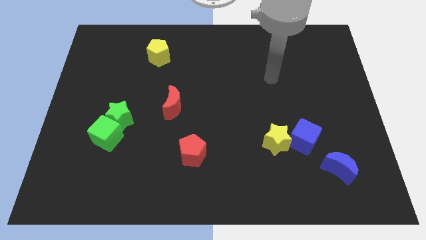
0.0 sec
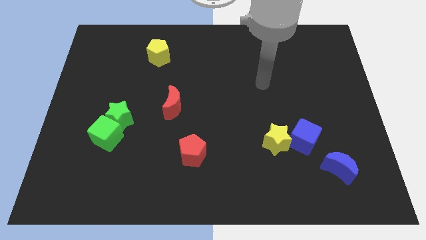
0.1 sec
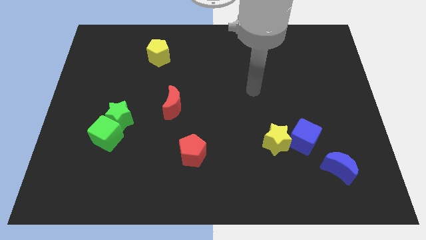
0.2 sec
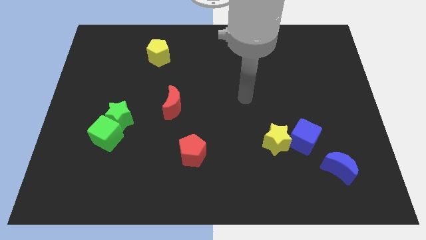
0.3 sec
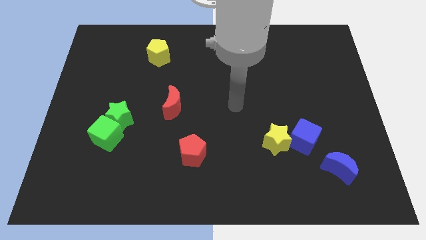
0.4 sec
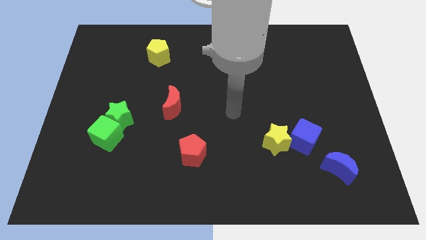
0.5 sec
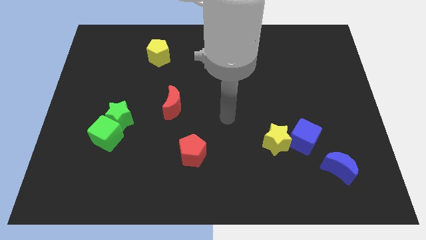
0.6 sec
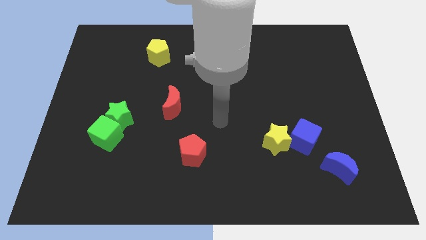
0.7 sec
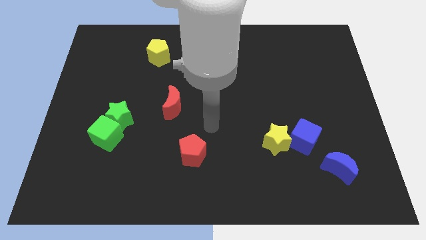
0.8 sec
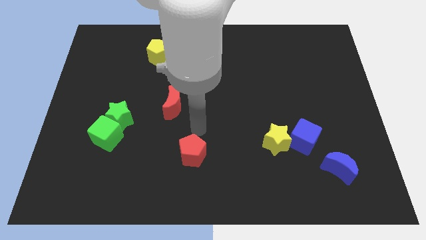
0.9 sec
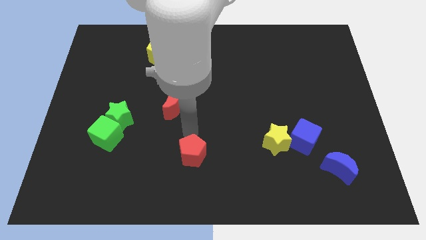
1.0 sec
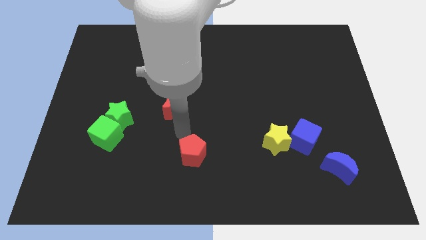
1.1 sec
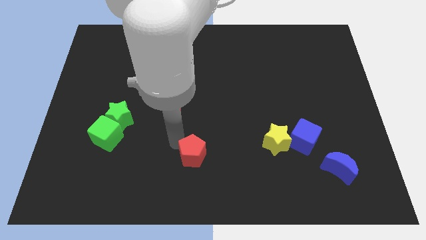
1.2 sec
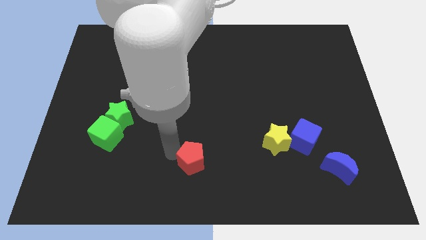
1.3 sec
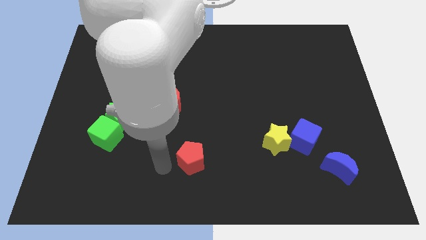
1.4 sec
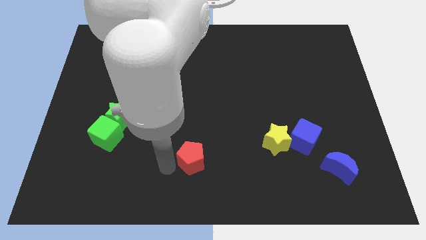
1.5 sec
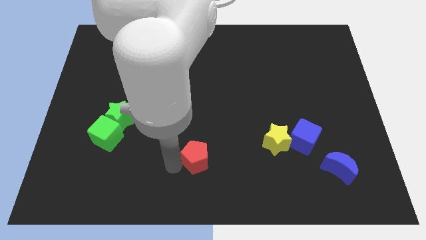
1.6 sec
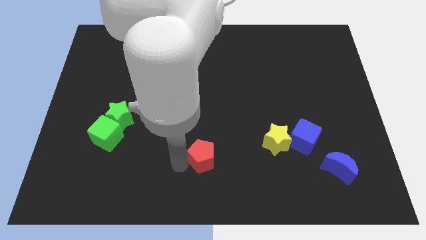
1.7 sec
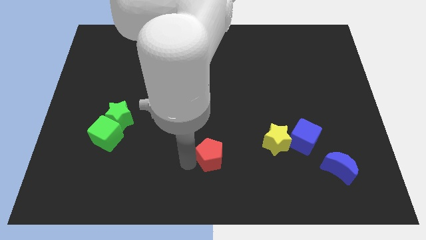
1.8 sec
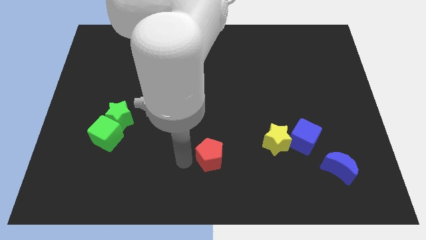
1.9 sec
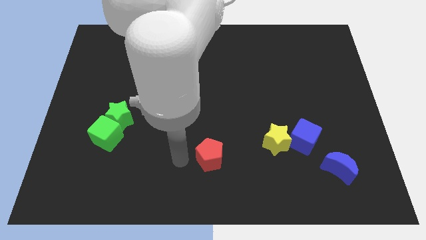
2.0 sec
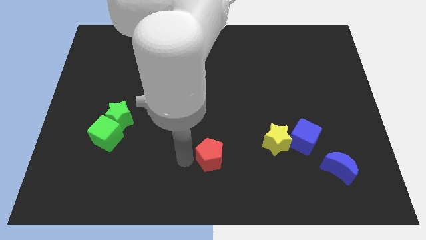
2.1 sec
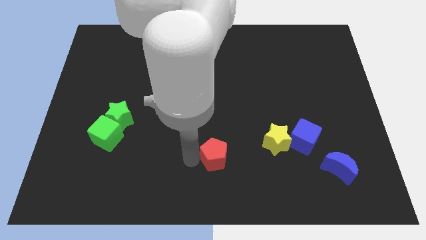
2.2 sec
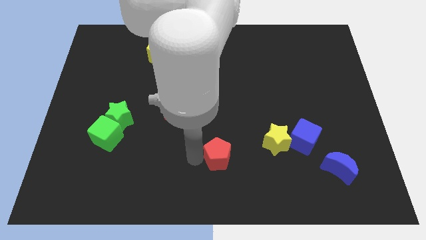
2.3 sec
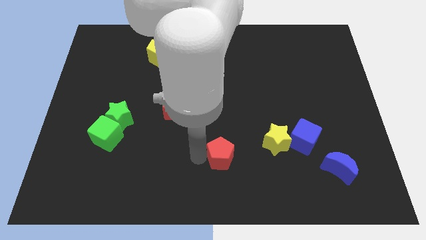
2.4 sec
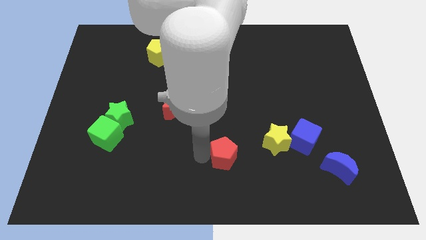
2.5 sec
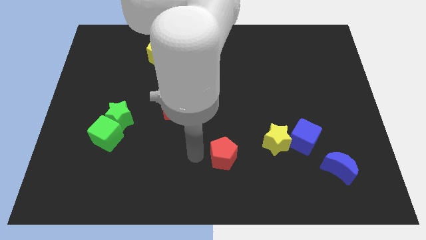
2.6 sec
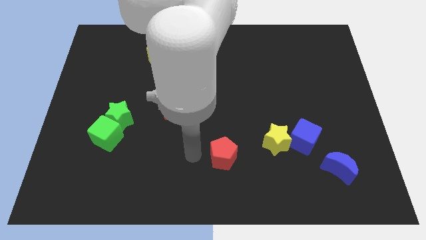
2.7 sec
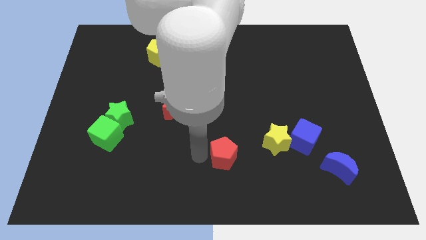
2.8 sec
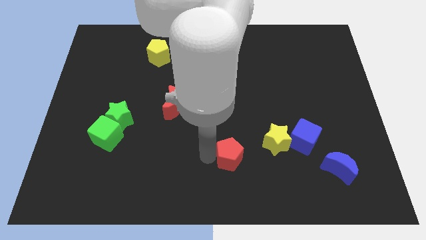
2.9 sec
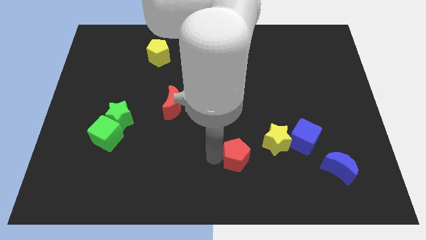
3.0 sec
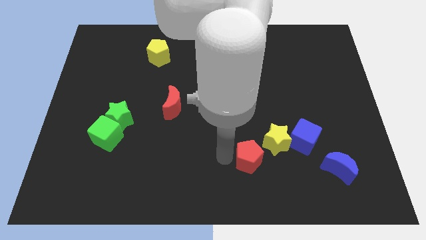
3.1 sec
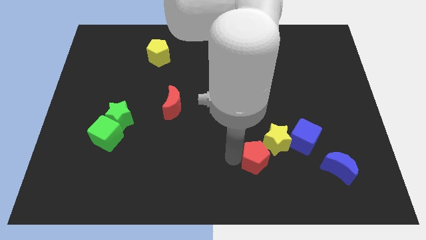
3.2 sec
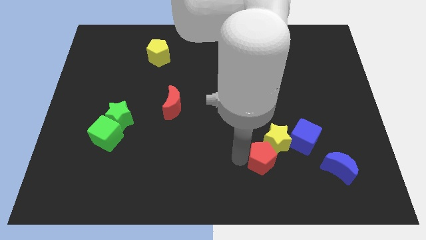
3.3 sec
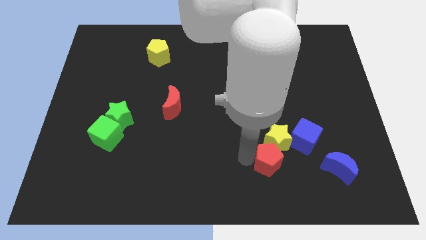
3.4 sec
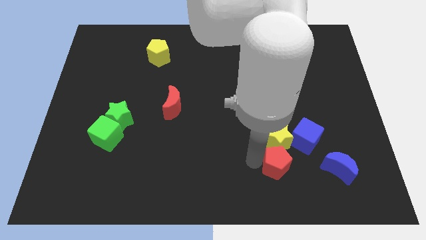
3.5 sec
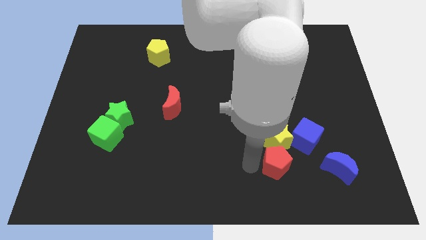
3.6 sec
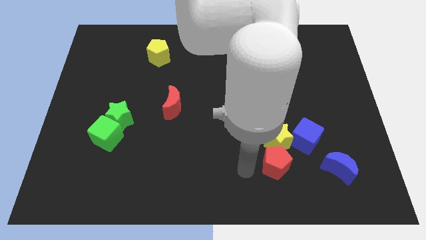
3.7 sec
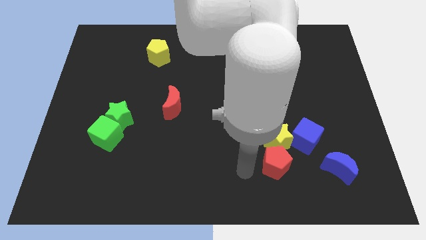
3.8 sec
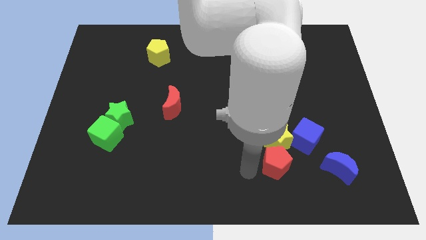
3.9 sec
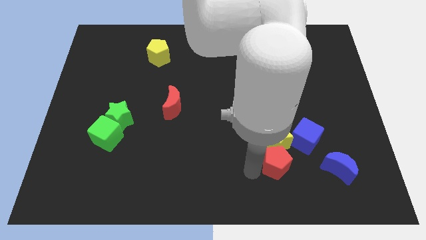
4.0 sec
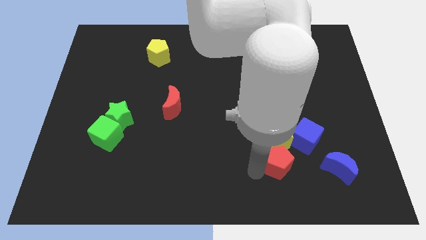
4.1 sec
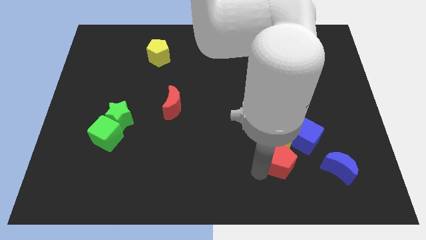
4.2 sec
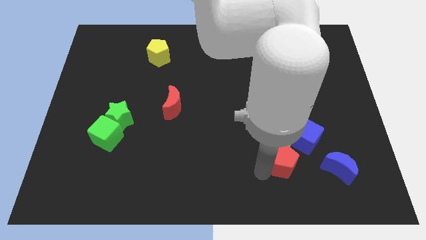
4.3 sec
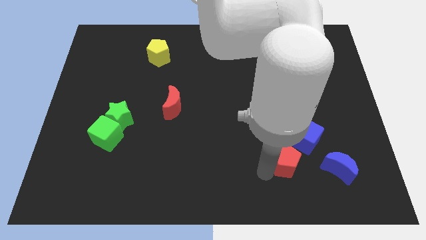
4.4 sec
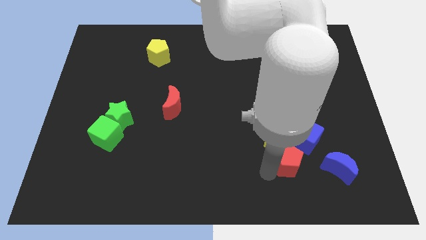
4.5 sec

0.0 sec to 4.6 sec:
push the red pentagon to the right

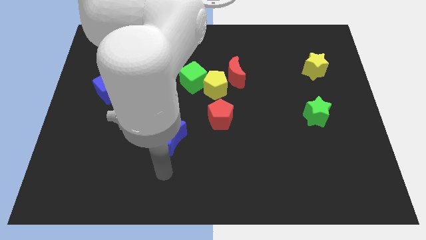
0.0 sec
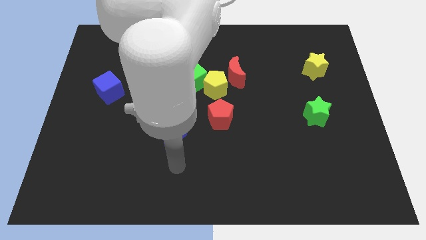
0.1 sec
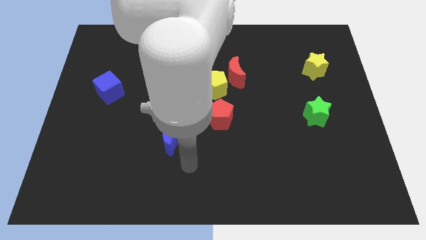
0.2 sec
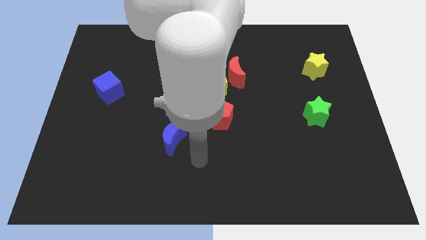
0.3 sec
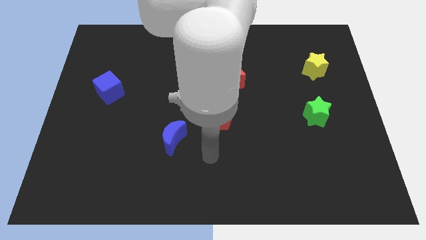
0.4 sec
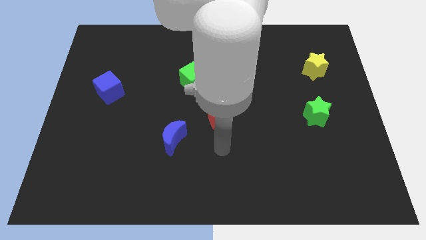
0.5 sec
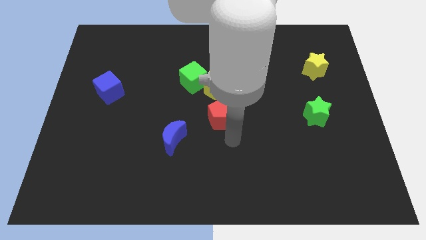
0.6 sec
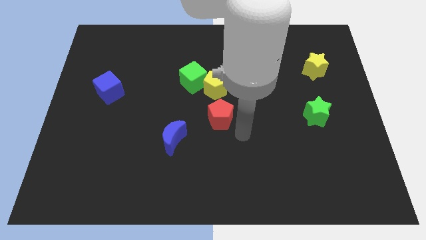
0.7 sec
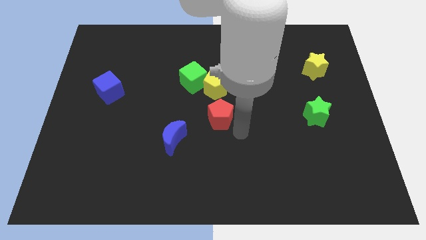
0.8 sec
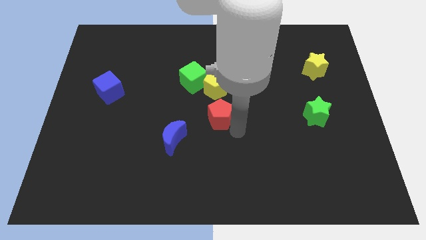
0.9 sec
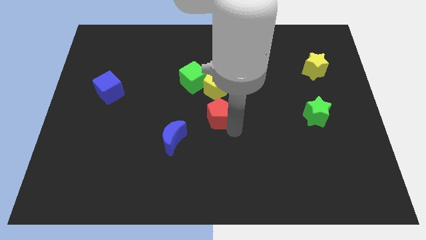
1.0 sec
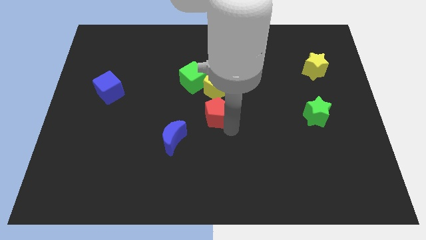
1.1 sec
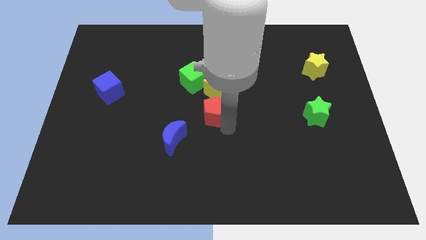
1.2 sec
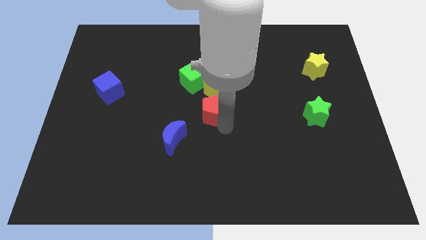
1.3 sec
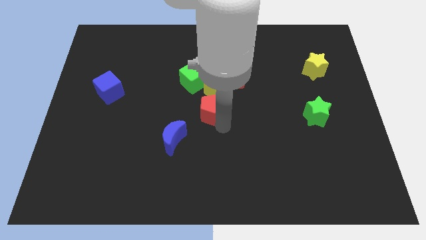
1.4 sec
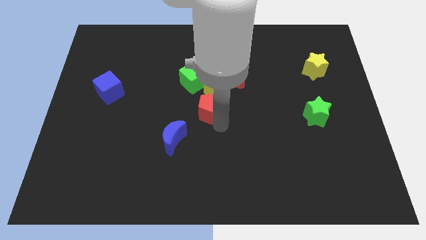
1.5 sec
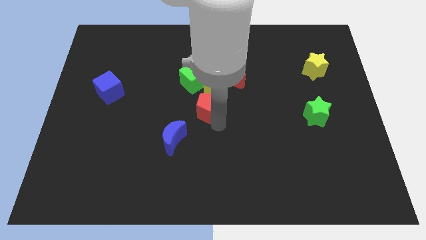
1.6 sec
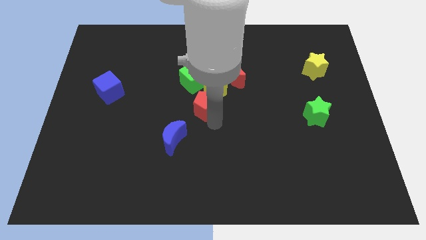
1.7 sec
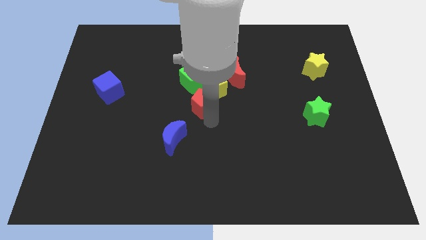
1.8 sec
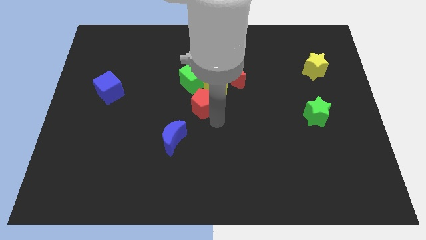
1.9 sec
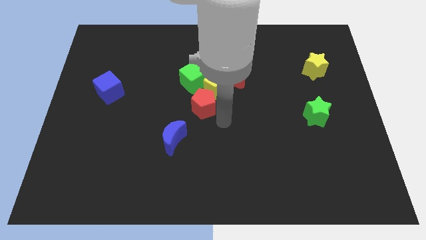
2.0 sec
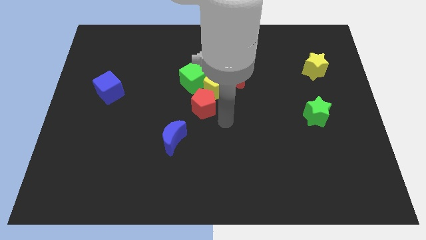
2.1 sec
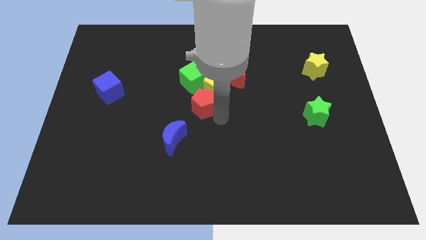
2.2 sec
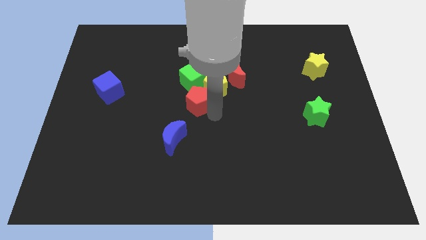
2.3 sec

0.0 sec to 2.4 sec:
slide the red pentagon up and to the left somewhat

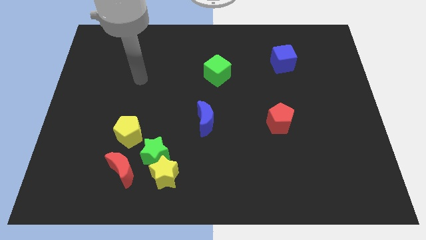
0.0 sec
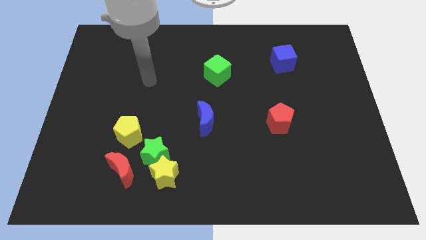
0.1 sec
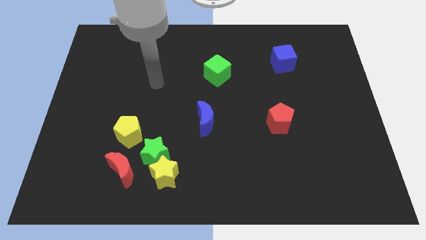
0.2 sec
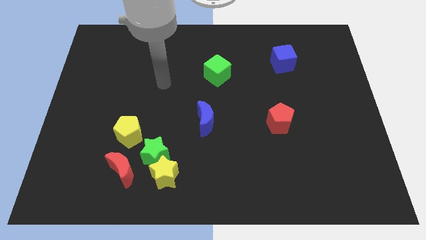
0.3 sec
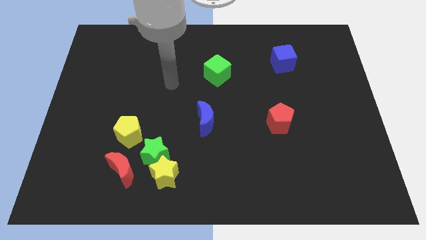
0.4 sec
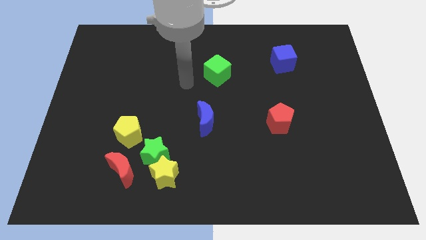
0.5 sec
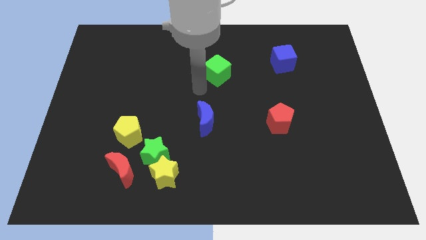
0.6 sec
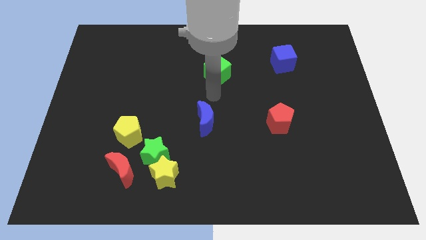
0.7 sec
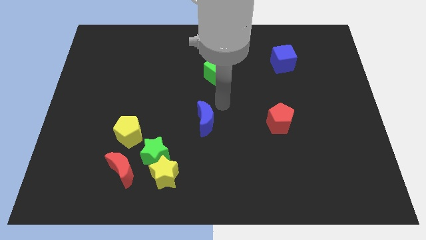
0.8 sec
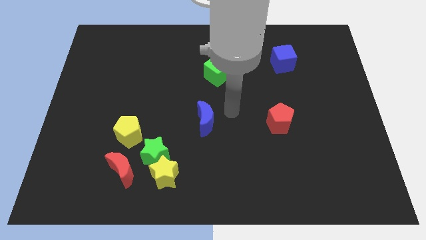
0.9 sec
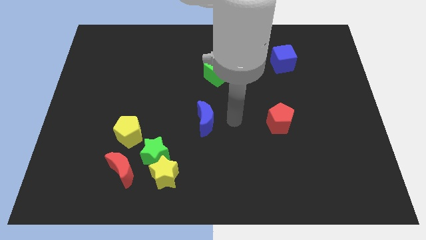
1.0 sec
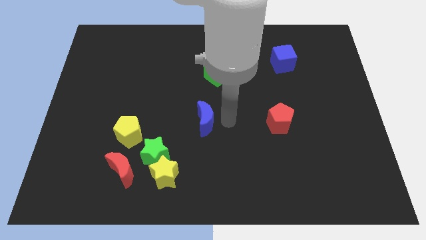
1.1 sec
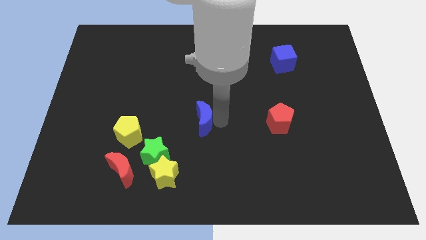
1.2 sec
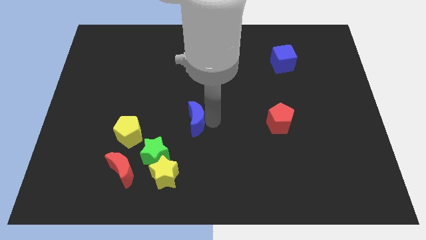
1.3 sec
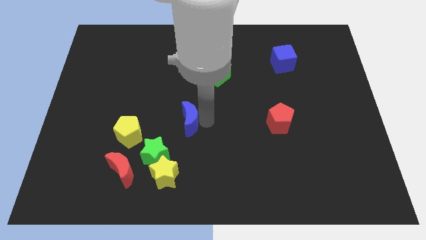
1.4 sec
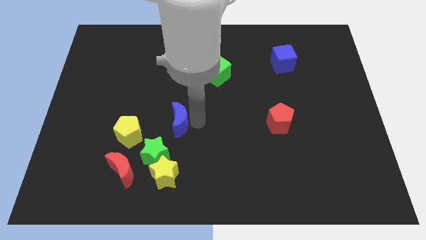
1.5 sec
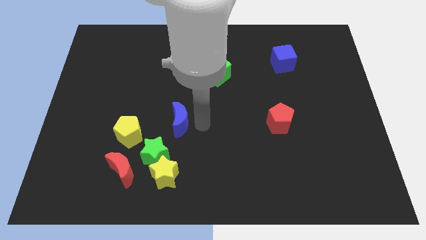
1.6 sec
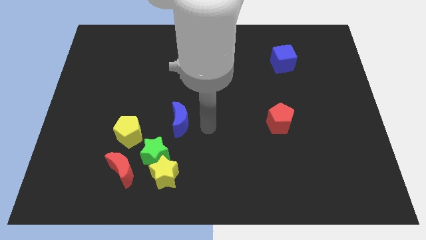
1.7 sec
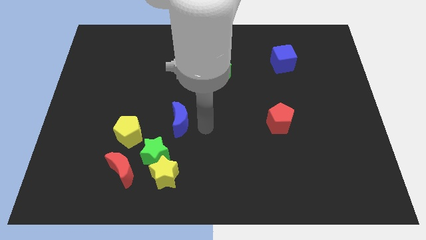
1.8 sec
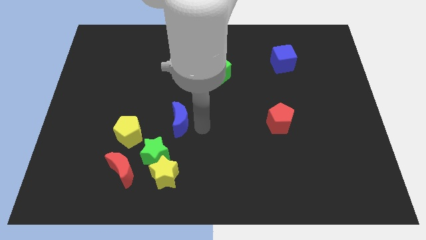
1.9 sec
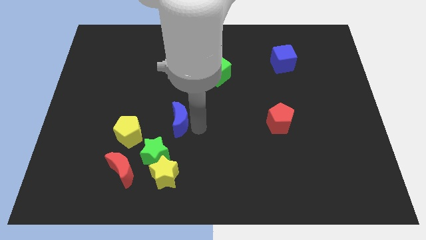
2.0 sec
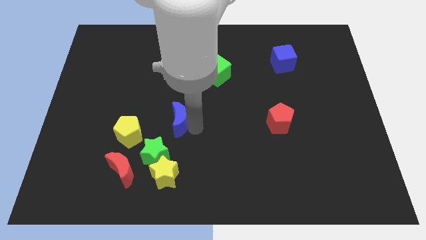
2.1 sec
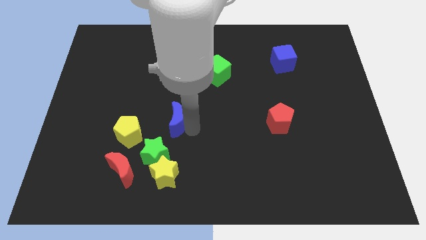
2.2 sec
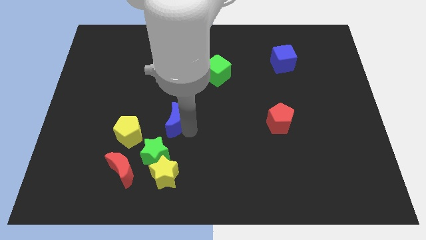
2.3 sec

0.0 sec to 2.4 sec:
push the blue moon to the left somewhat
